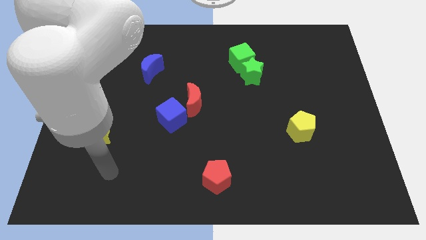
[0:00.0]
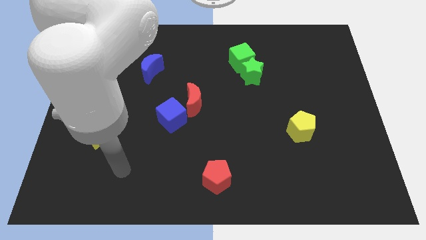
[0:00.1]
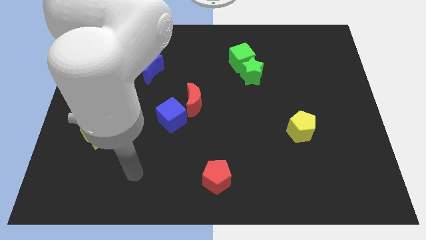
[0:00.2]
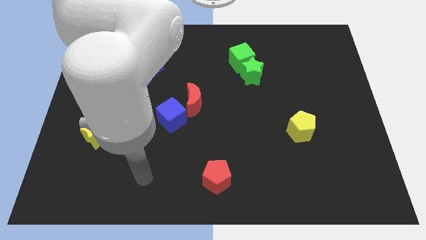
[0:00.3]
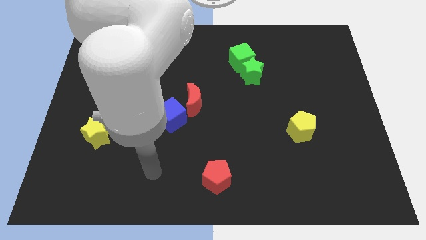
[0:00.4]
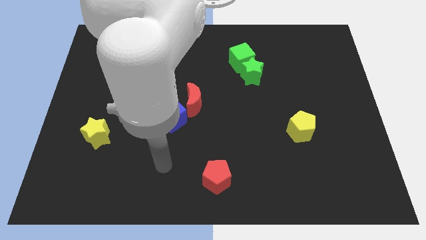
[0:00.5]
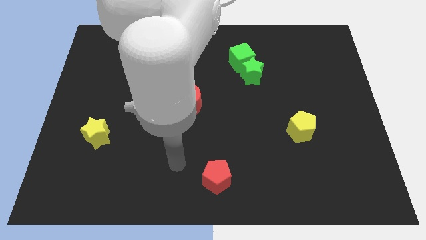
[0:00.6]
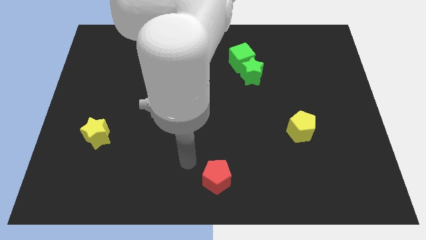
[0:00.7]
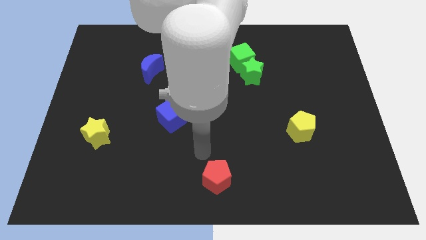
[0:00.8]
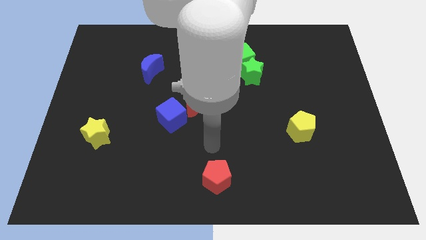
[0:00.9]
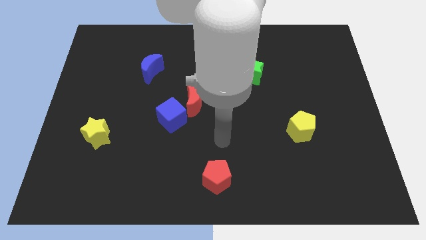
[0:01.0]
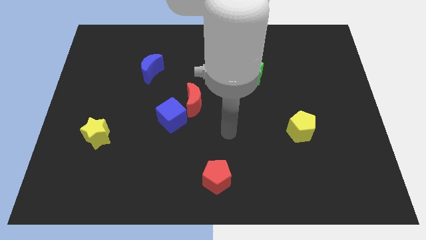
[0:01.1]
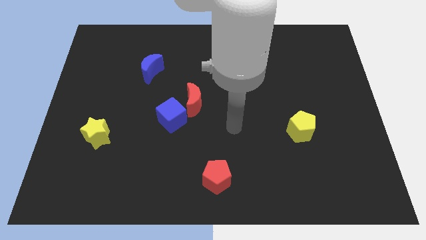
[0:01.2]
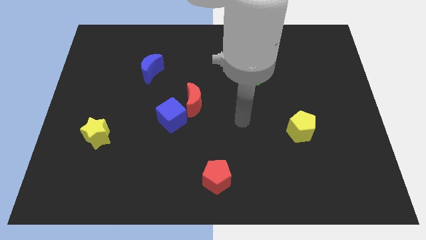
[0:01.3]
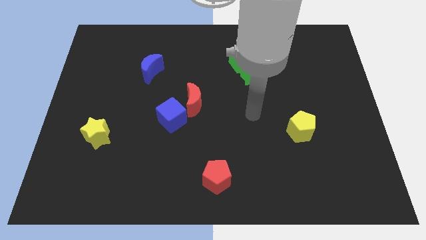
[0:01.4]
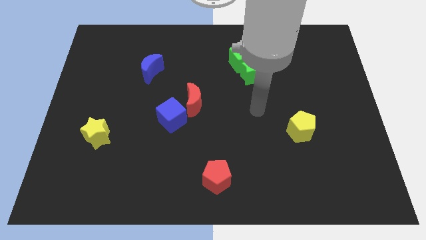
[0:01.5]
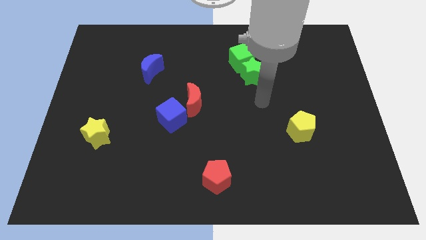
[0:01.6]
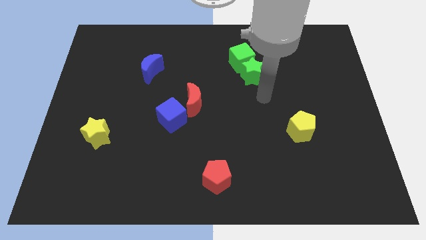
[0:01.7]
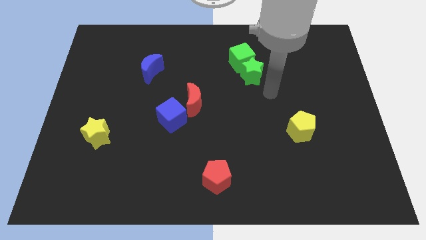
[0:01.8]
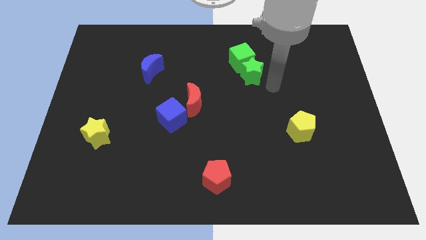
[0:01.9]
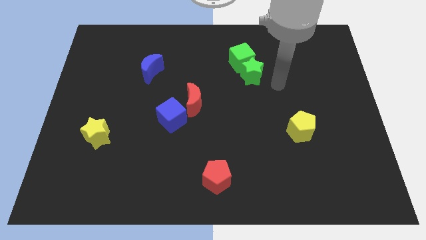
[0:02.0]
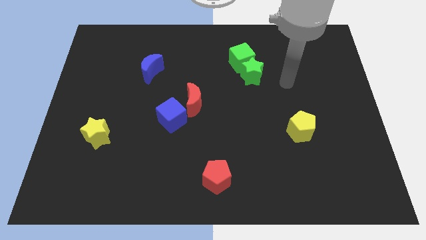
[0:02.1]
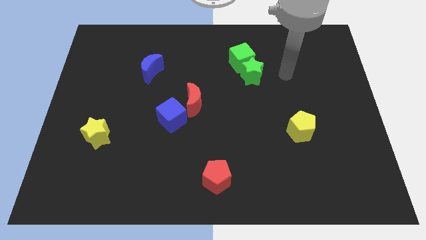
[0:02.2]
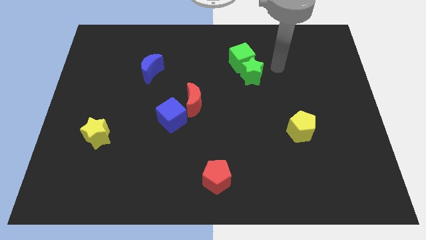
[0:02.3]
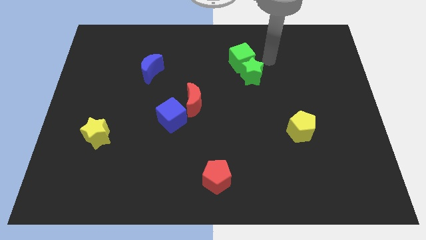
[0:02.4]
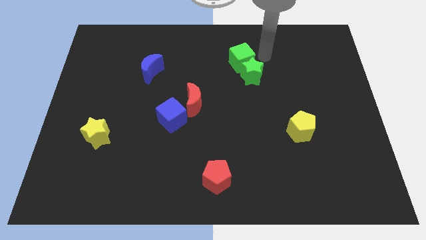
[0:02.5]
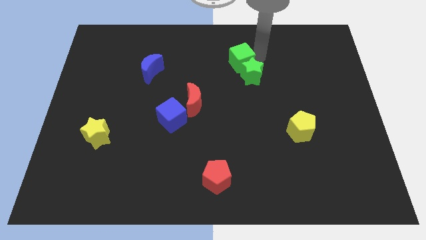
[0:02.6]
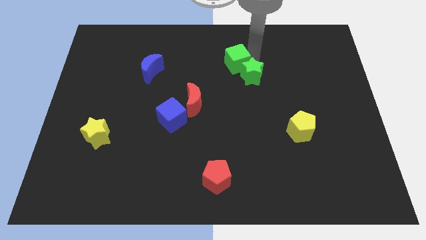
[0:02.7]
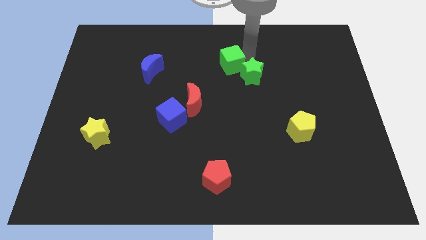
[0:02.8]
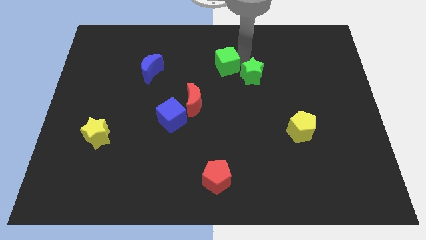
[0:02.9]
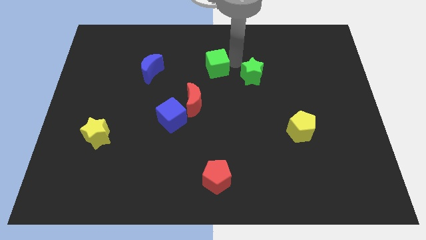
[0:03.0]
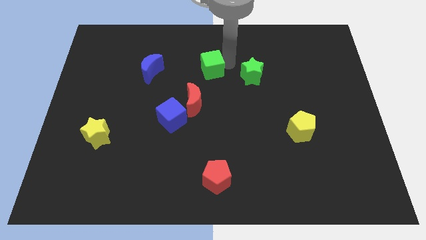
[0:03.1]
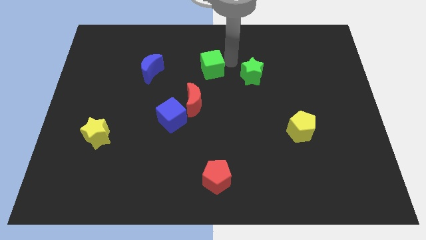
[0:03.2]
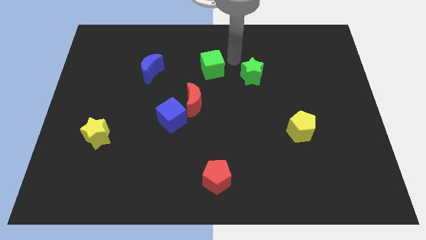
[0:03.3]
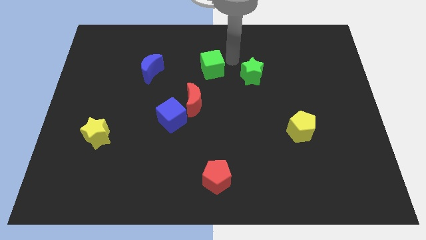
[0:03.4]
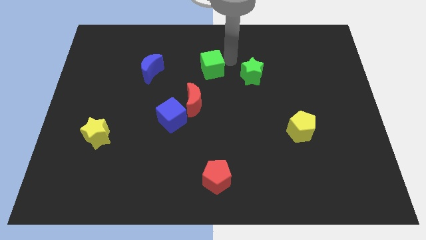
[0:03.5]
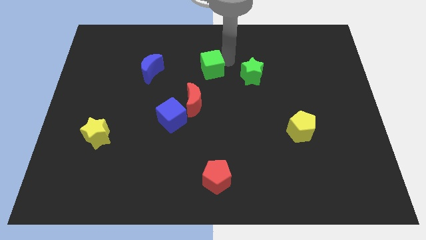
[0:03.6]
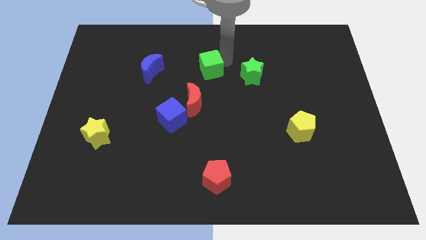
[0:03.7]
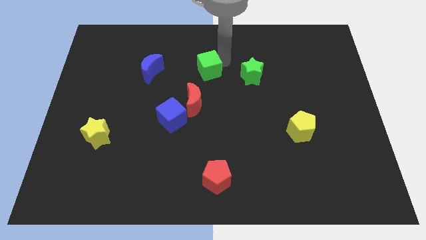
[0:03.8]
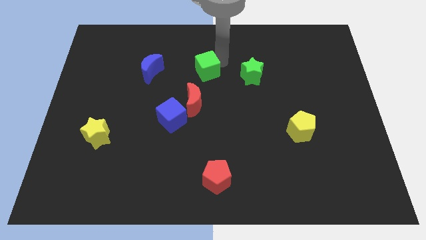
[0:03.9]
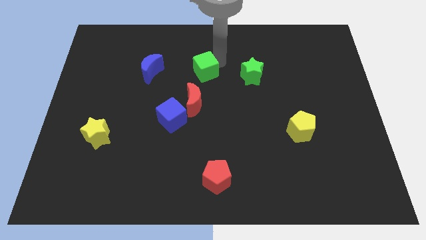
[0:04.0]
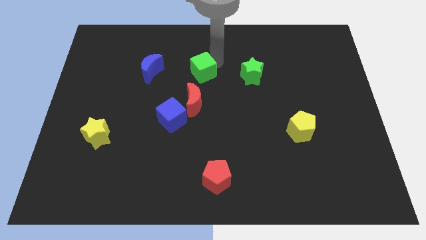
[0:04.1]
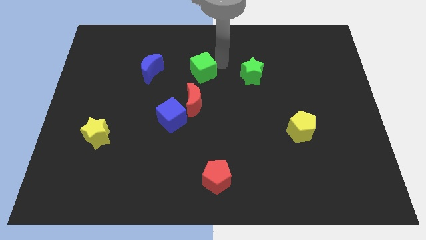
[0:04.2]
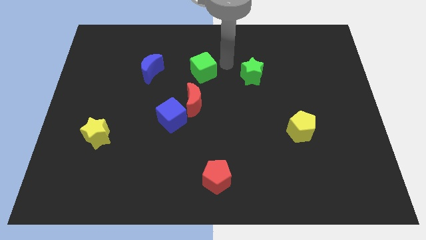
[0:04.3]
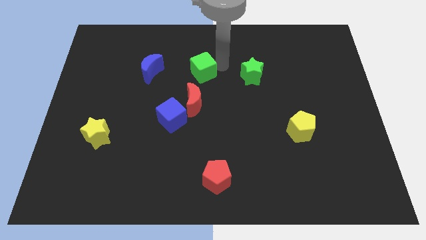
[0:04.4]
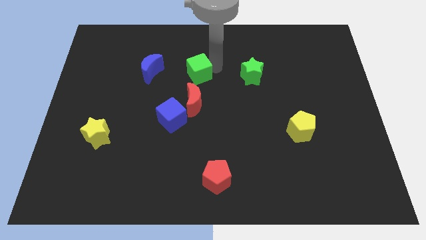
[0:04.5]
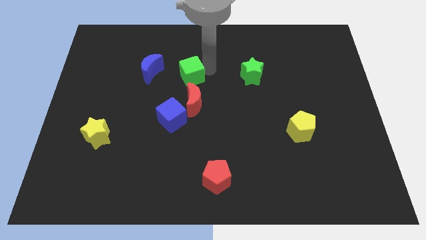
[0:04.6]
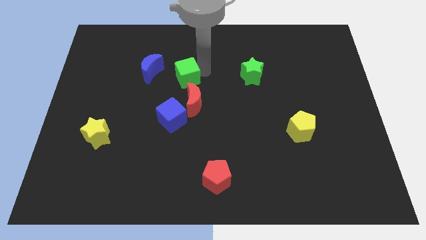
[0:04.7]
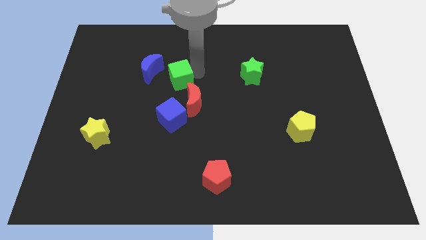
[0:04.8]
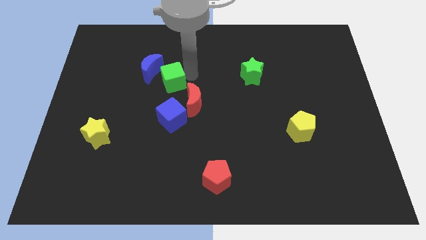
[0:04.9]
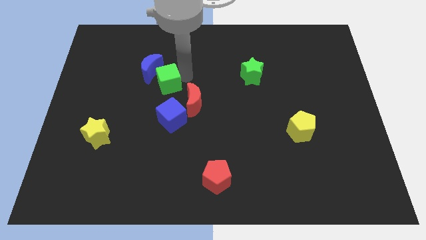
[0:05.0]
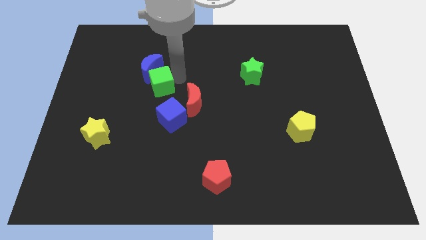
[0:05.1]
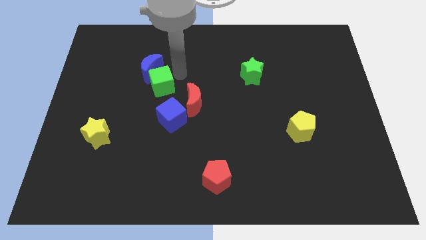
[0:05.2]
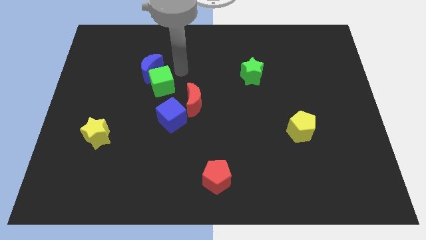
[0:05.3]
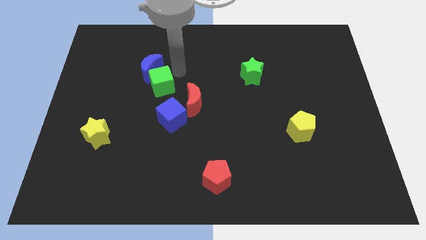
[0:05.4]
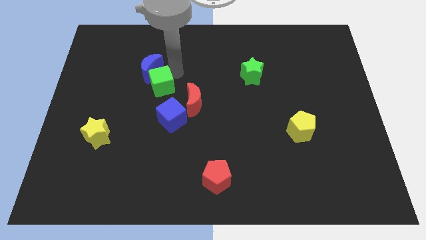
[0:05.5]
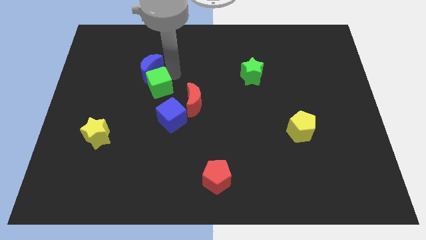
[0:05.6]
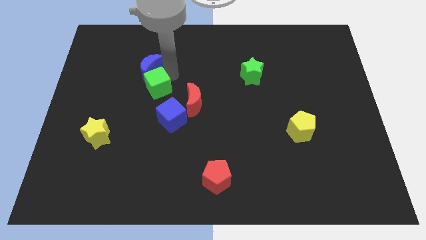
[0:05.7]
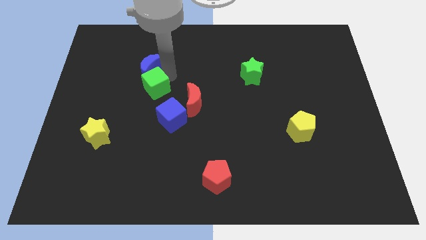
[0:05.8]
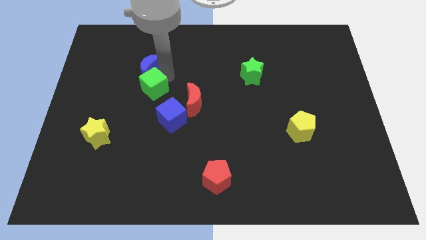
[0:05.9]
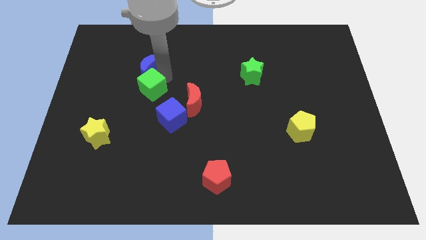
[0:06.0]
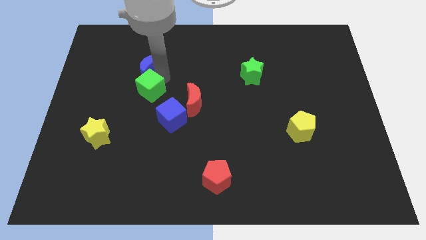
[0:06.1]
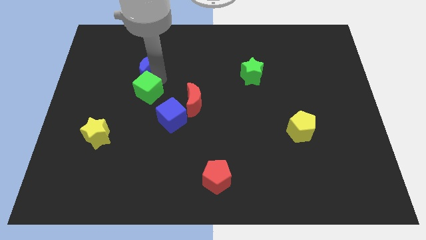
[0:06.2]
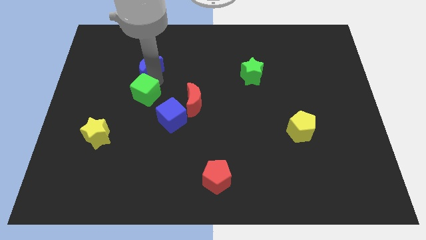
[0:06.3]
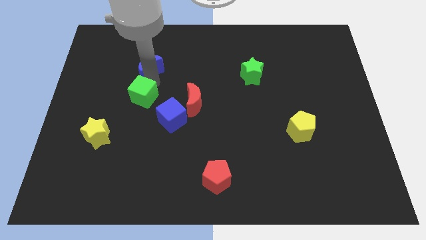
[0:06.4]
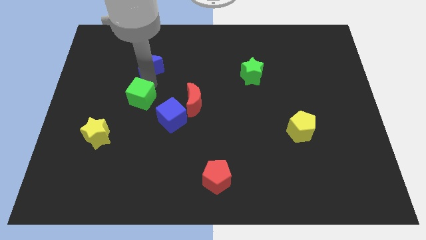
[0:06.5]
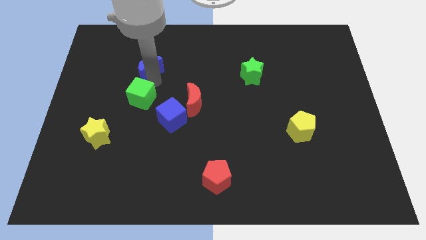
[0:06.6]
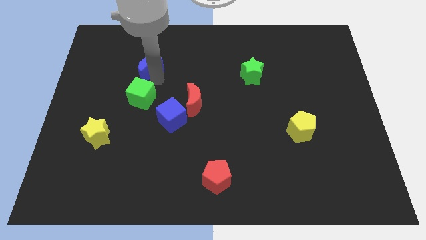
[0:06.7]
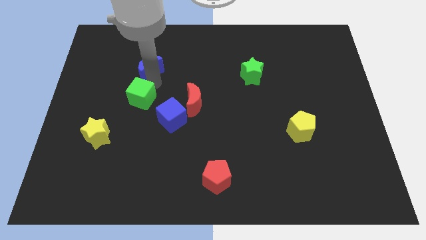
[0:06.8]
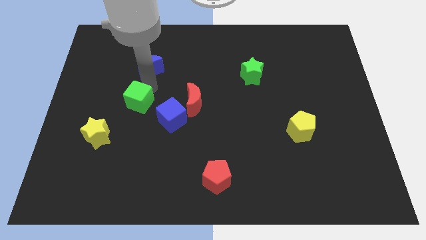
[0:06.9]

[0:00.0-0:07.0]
push the green cube diagonally up and to the right of the yellow star
